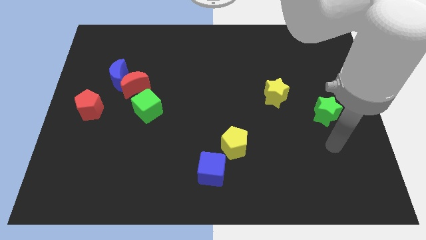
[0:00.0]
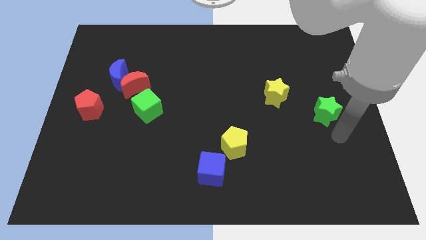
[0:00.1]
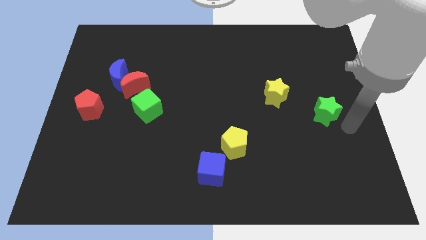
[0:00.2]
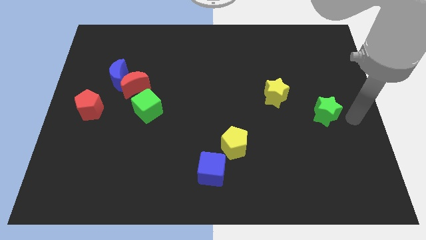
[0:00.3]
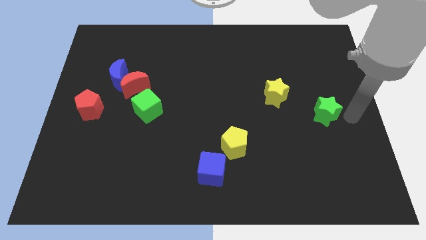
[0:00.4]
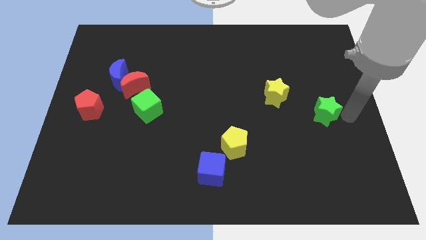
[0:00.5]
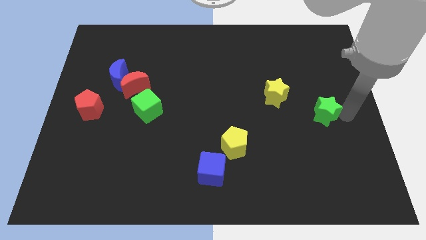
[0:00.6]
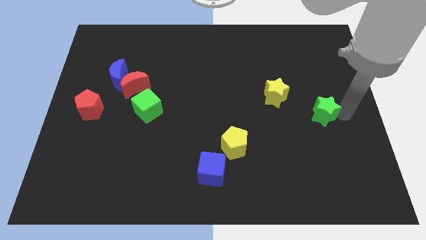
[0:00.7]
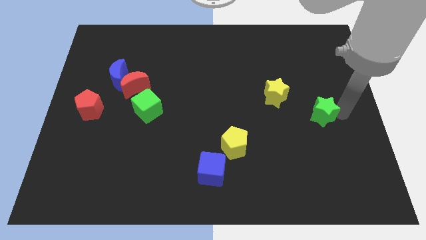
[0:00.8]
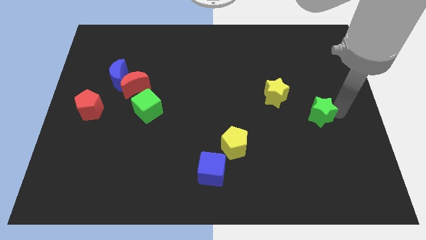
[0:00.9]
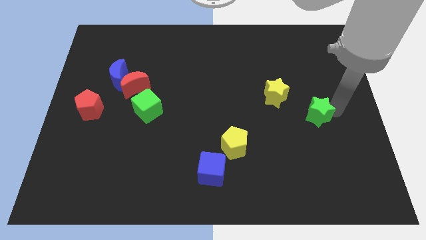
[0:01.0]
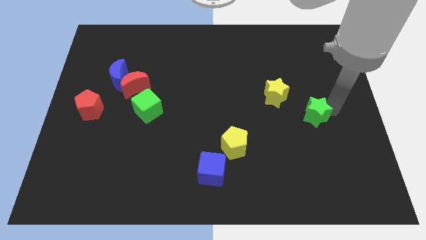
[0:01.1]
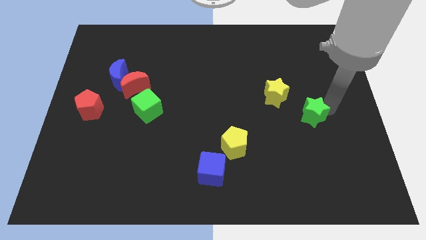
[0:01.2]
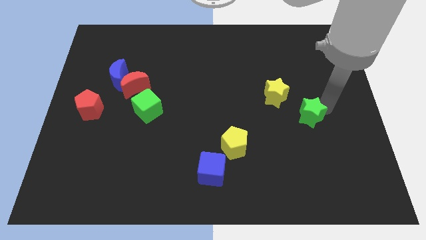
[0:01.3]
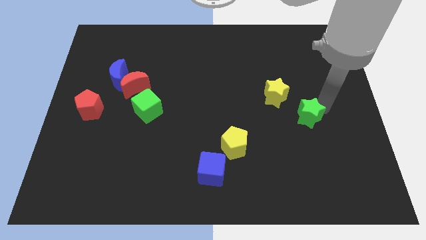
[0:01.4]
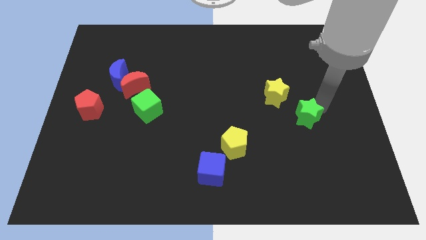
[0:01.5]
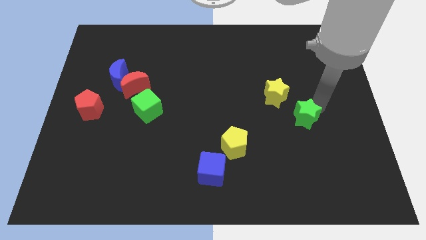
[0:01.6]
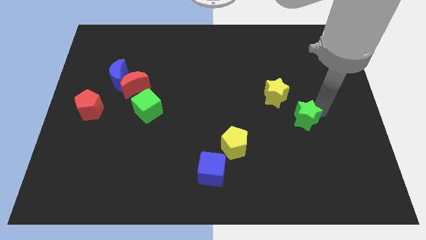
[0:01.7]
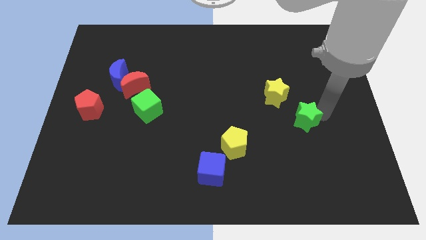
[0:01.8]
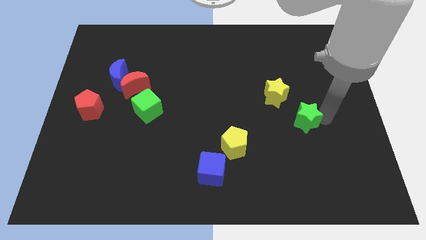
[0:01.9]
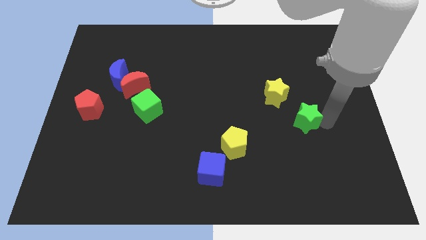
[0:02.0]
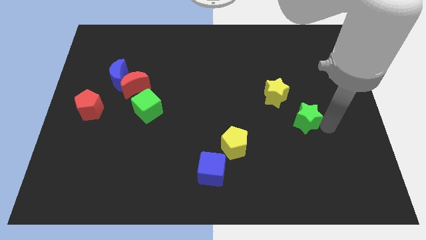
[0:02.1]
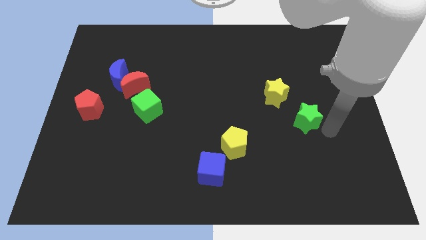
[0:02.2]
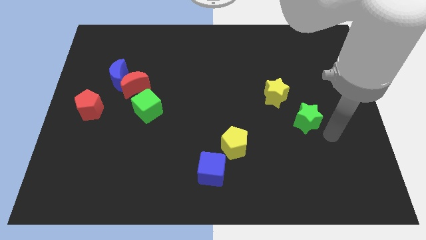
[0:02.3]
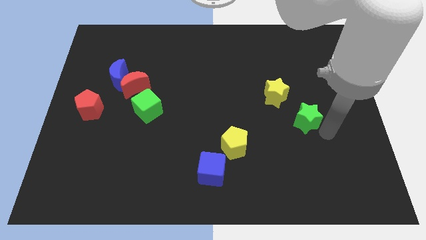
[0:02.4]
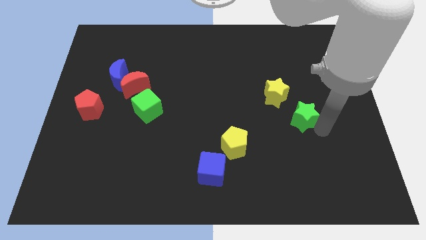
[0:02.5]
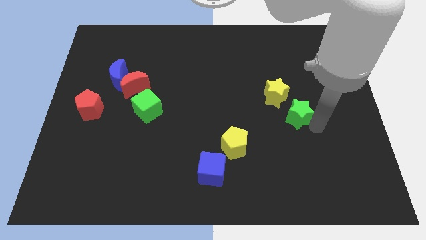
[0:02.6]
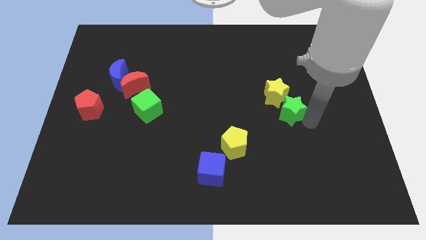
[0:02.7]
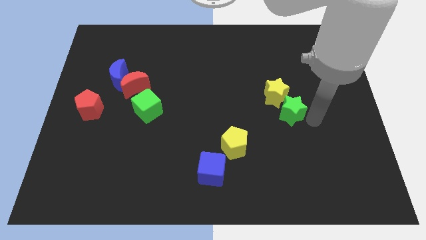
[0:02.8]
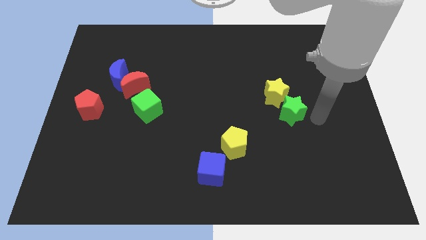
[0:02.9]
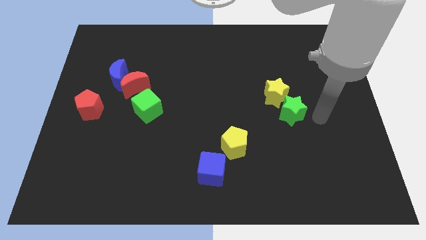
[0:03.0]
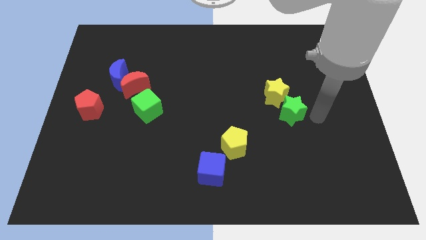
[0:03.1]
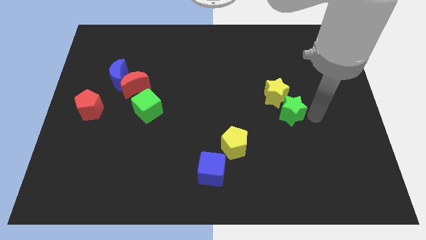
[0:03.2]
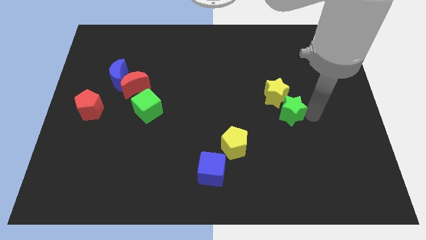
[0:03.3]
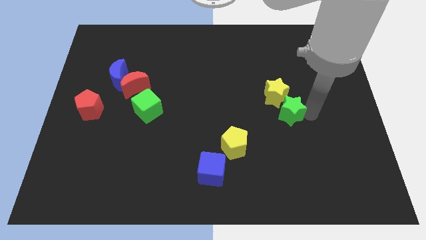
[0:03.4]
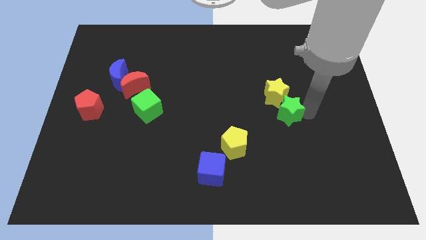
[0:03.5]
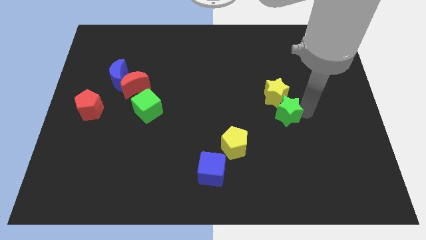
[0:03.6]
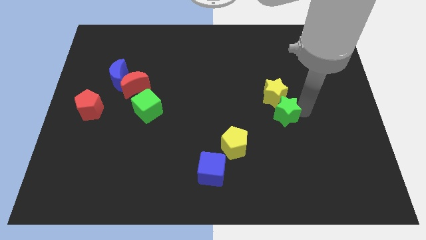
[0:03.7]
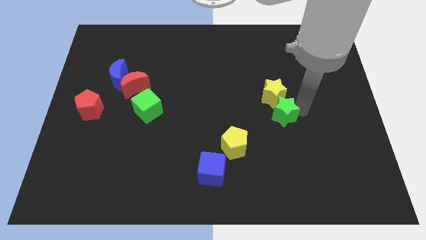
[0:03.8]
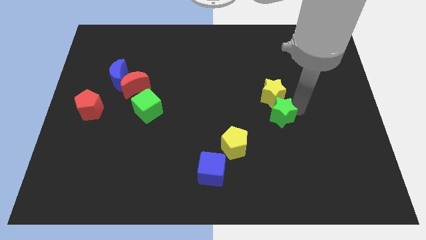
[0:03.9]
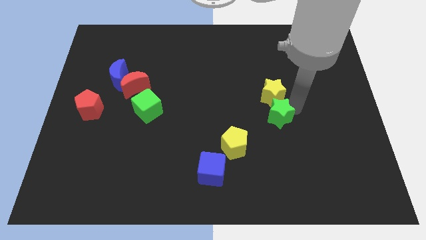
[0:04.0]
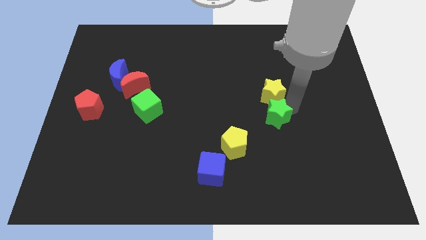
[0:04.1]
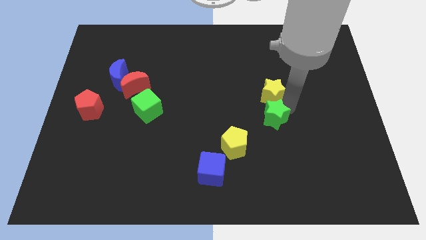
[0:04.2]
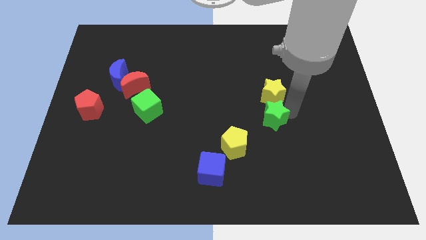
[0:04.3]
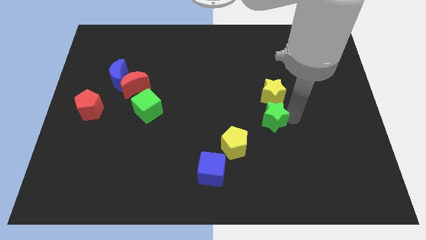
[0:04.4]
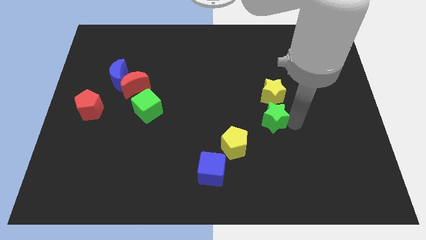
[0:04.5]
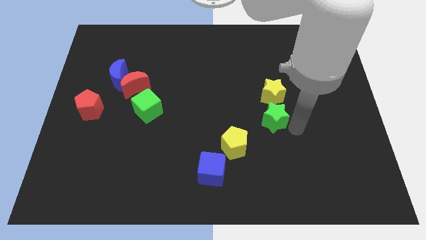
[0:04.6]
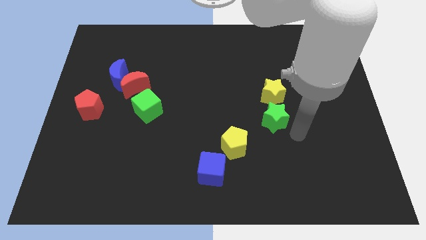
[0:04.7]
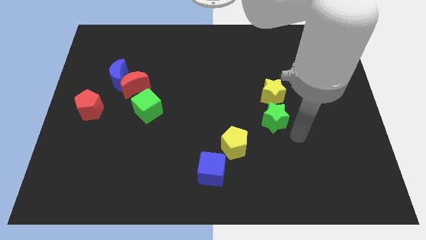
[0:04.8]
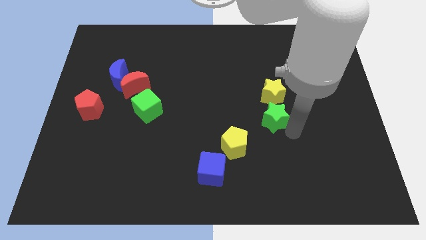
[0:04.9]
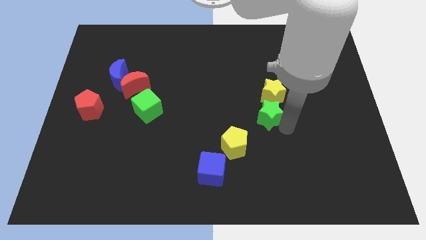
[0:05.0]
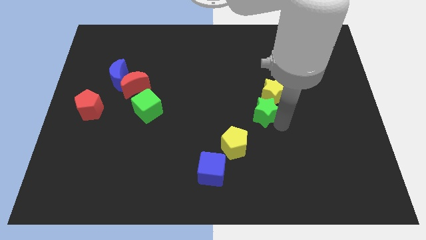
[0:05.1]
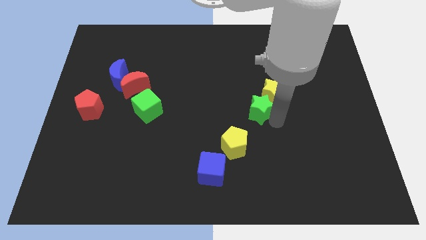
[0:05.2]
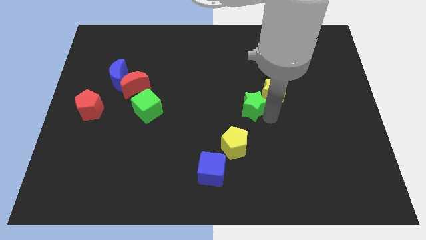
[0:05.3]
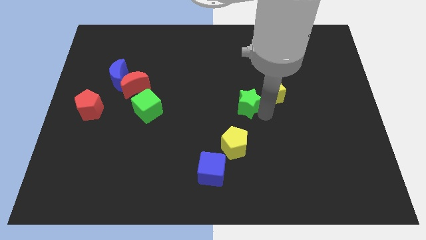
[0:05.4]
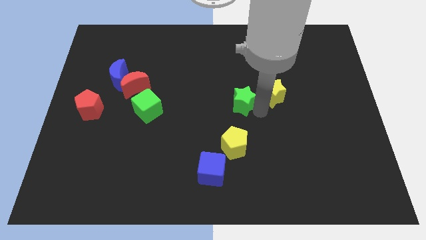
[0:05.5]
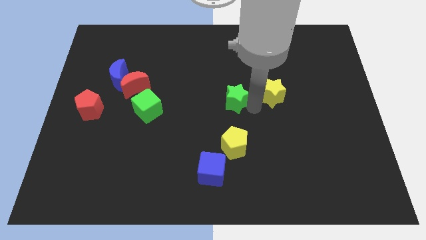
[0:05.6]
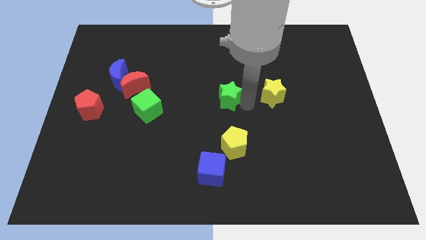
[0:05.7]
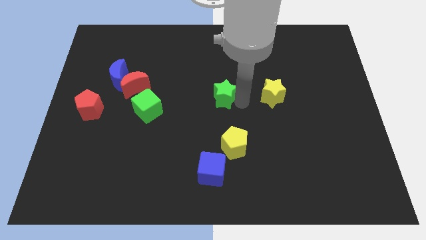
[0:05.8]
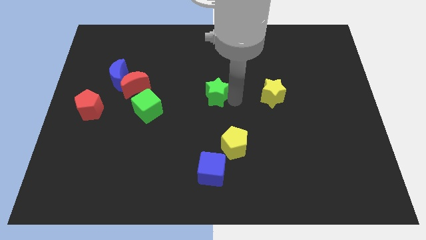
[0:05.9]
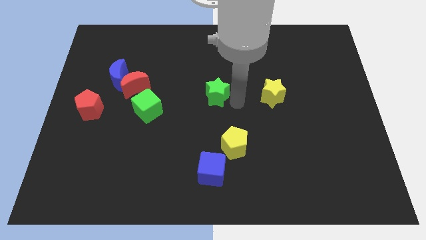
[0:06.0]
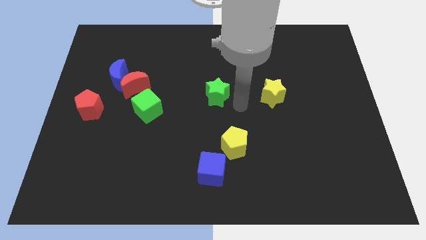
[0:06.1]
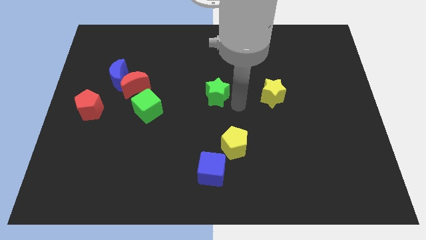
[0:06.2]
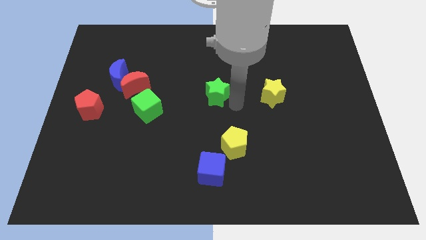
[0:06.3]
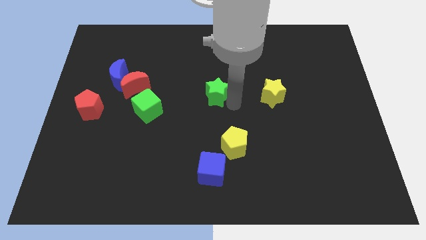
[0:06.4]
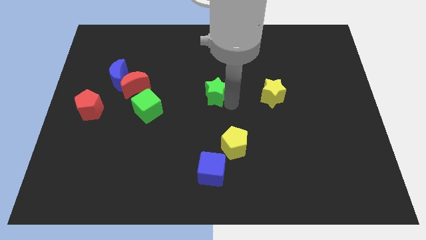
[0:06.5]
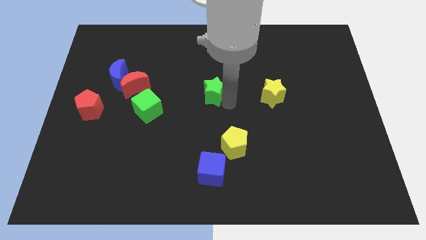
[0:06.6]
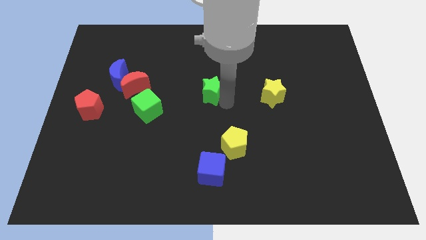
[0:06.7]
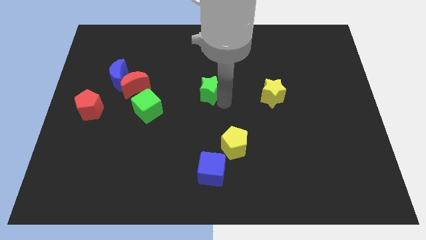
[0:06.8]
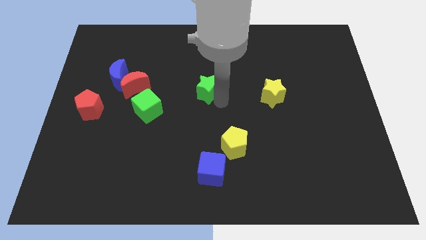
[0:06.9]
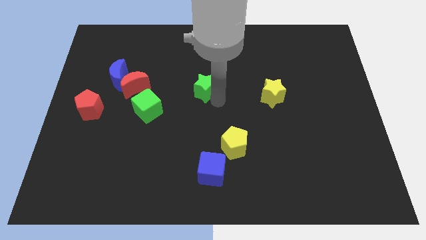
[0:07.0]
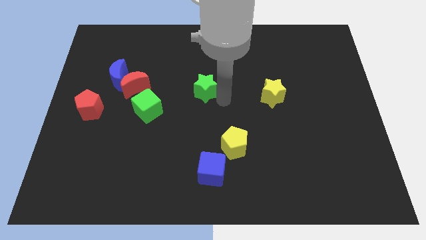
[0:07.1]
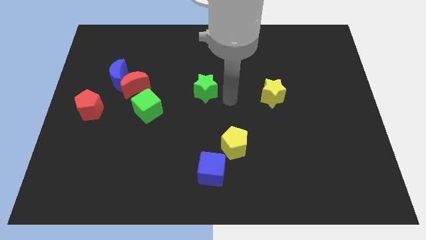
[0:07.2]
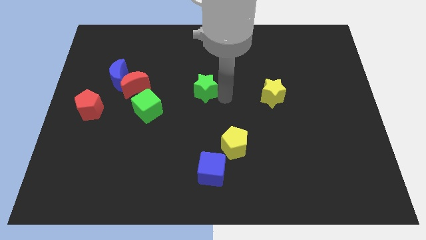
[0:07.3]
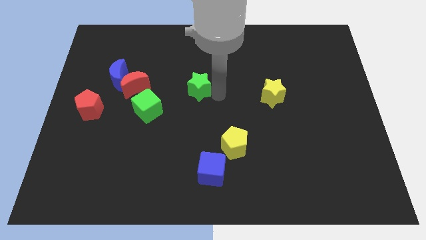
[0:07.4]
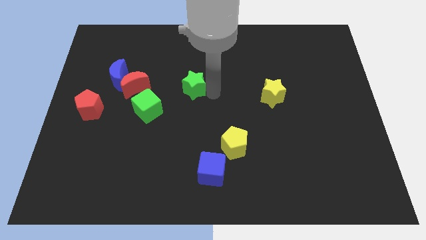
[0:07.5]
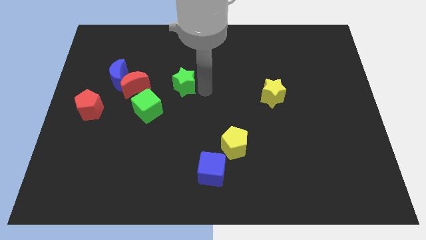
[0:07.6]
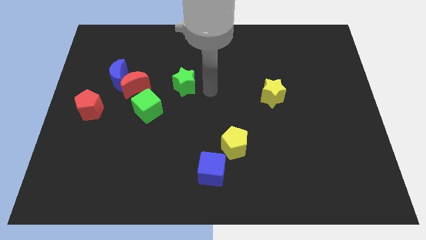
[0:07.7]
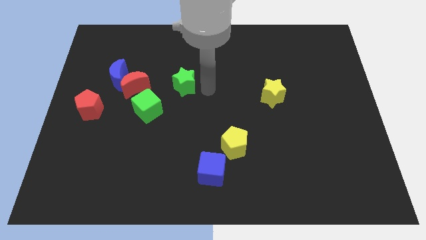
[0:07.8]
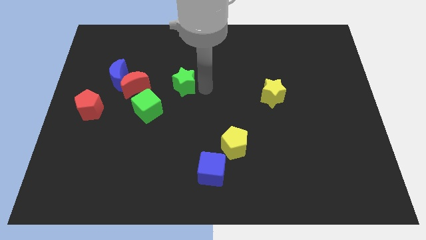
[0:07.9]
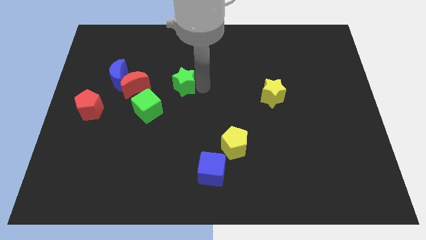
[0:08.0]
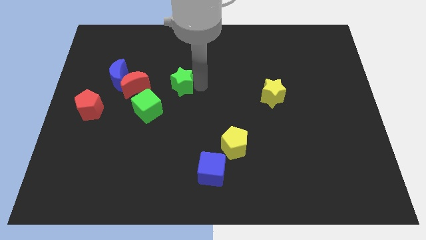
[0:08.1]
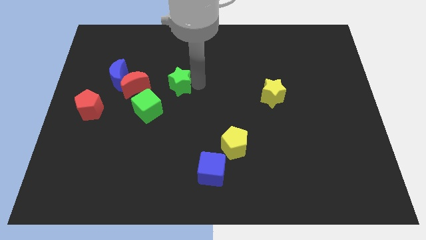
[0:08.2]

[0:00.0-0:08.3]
slide the green star just right of the blue moon
